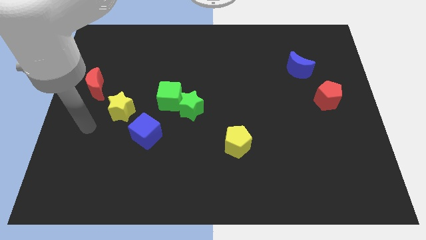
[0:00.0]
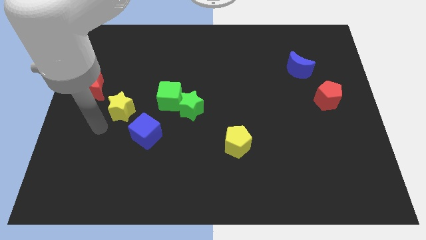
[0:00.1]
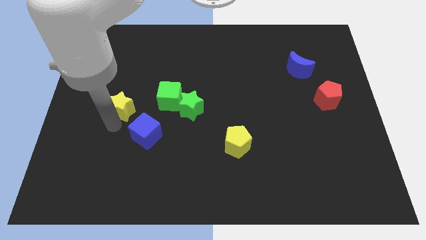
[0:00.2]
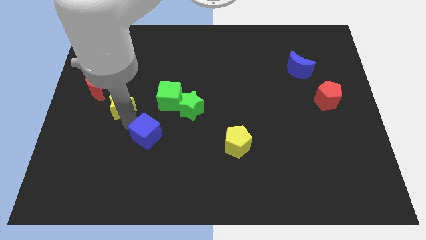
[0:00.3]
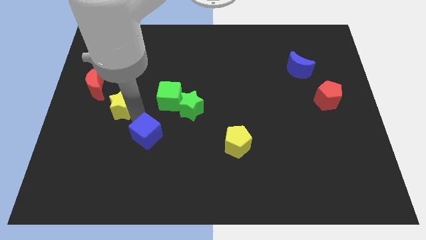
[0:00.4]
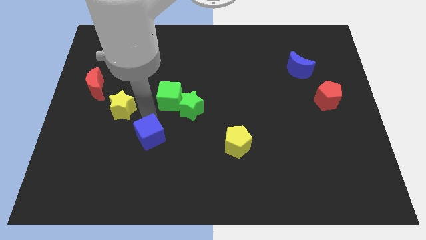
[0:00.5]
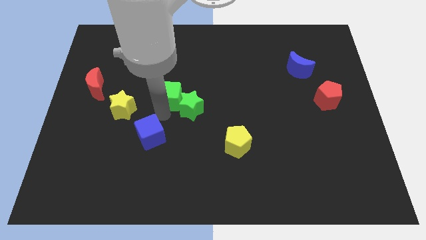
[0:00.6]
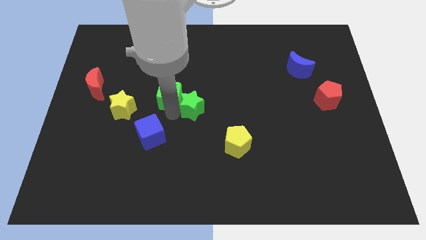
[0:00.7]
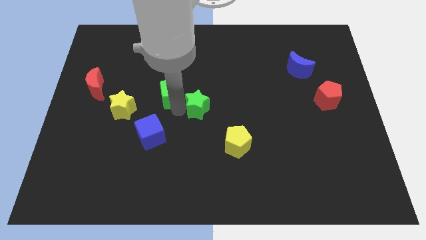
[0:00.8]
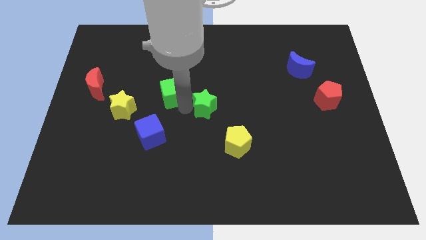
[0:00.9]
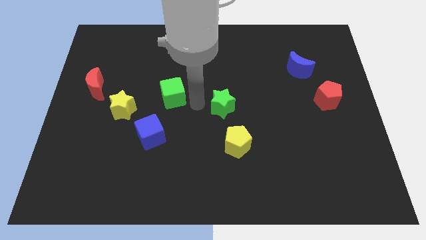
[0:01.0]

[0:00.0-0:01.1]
pull the green cube apart from the green star

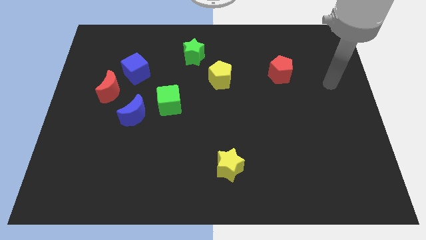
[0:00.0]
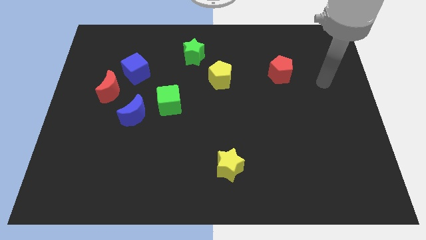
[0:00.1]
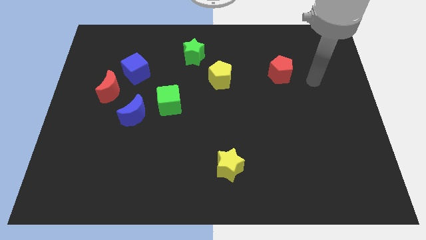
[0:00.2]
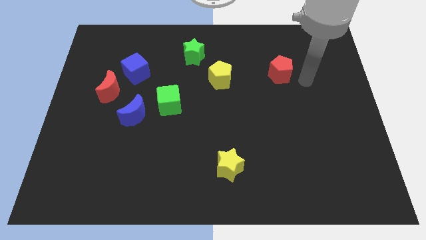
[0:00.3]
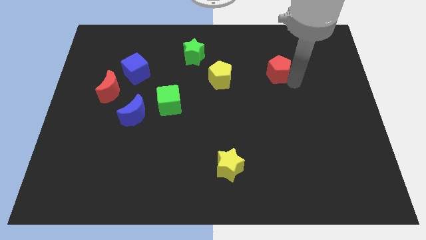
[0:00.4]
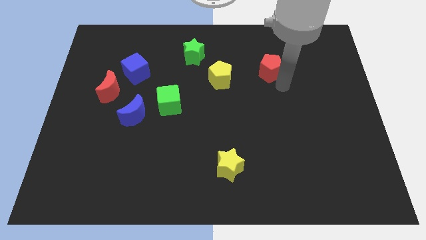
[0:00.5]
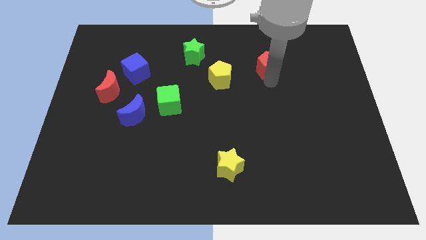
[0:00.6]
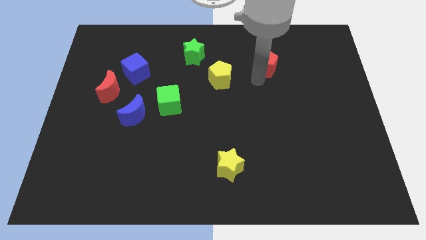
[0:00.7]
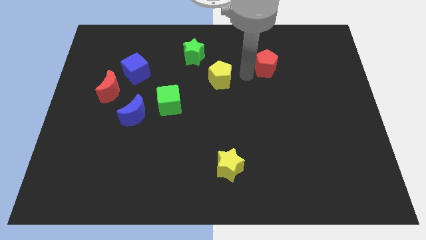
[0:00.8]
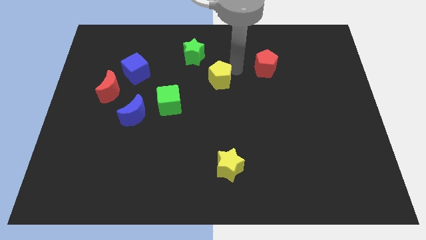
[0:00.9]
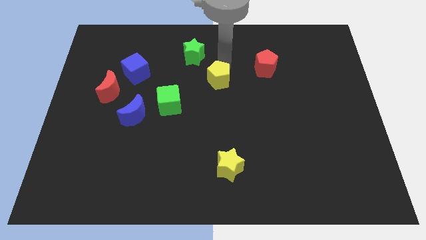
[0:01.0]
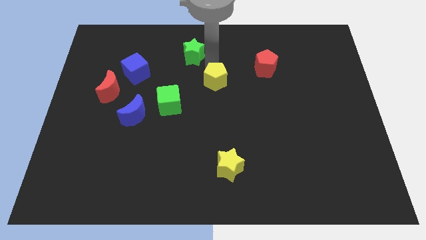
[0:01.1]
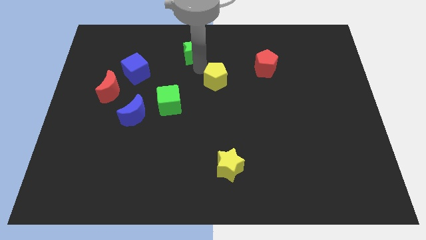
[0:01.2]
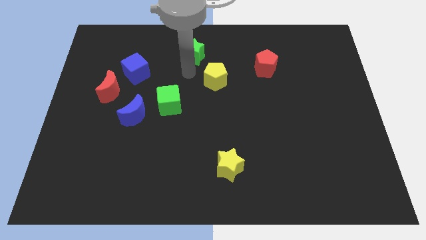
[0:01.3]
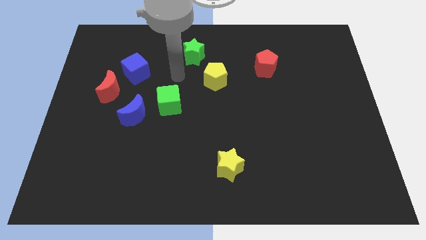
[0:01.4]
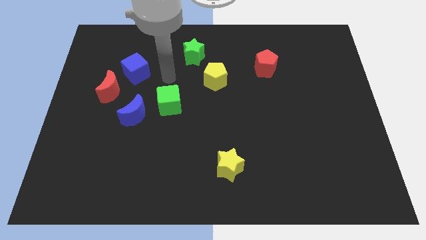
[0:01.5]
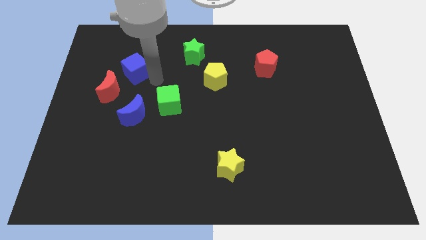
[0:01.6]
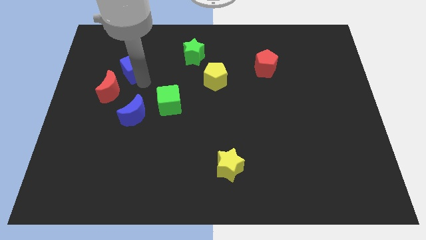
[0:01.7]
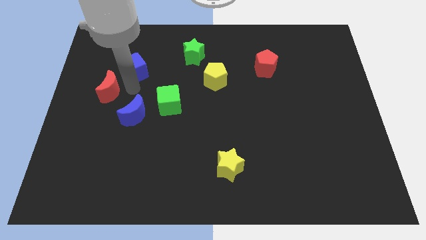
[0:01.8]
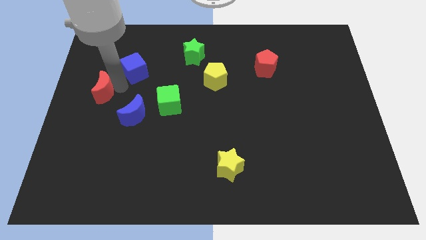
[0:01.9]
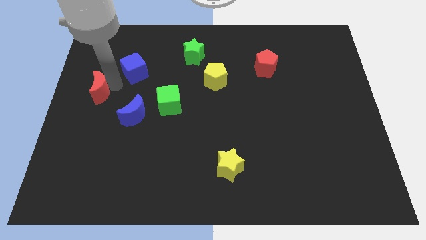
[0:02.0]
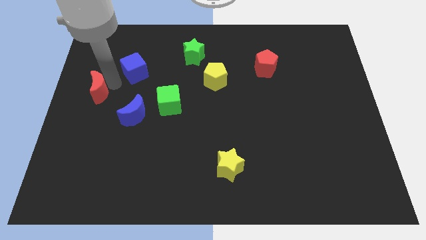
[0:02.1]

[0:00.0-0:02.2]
separate the blue cube from the red moon

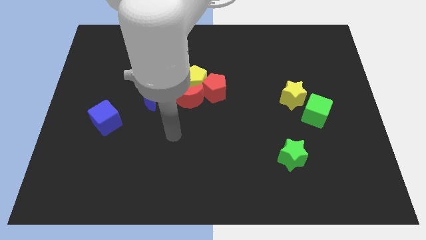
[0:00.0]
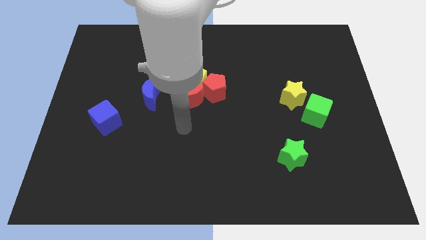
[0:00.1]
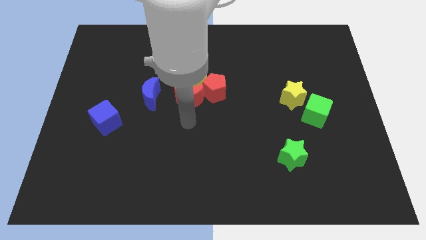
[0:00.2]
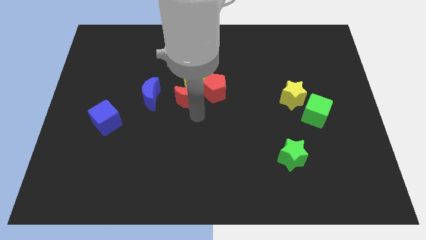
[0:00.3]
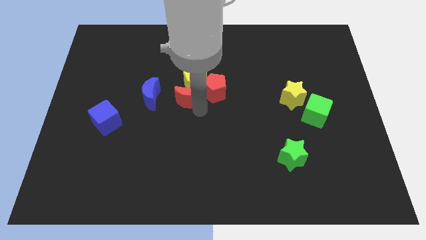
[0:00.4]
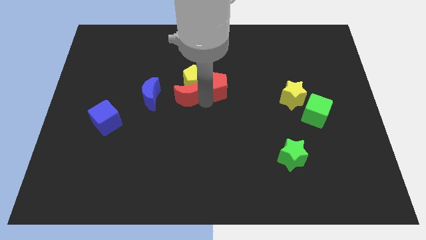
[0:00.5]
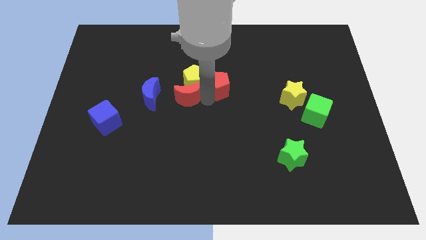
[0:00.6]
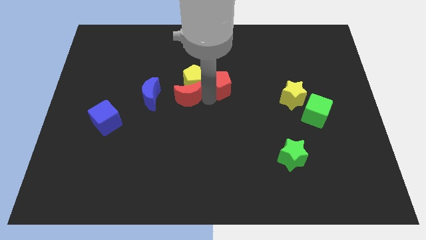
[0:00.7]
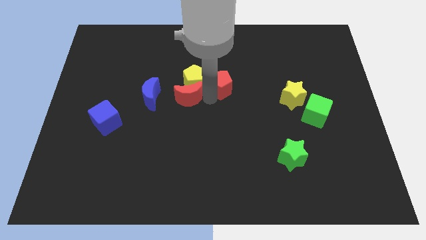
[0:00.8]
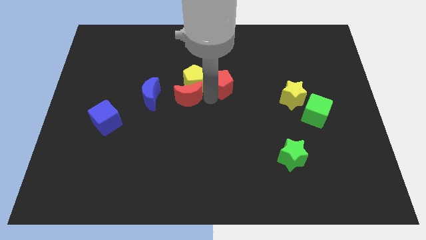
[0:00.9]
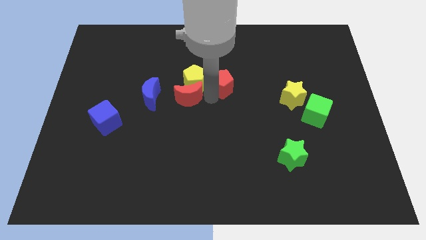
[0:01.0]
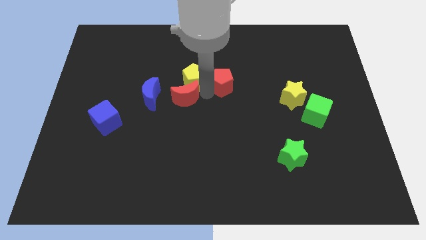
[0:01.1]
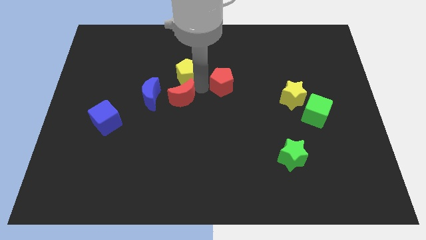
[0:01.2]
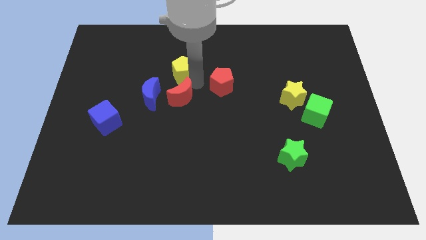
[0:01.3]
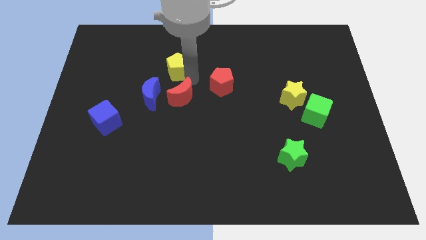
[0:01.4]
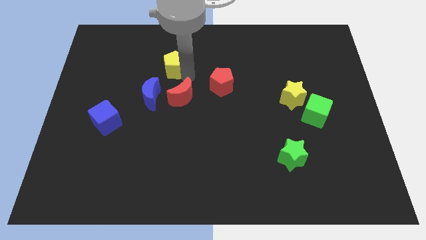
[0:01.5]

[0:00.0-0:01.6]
move the yellow pentagon away from the red moon and red pentagon

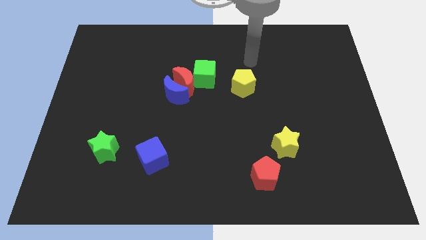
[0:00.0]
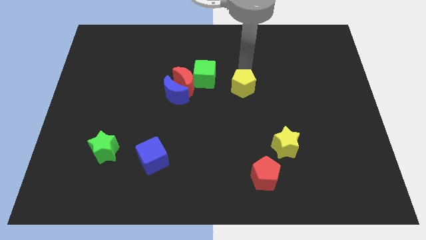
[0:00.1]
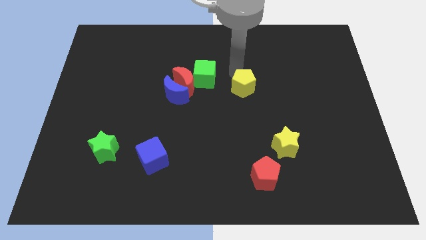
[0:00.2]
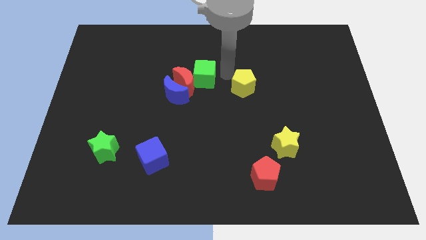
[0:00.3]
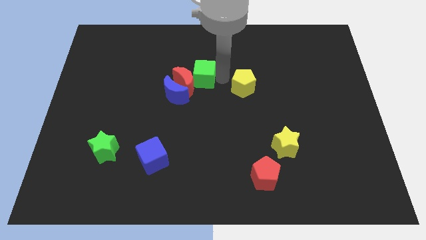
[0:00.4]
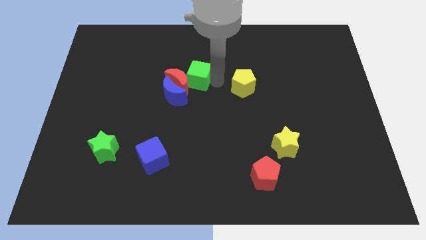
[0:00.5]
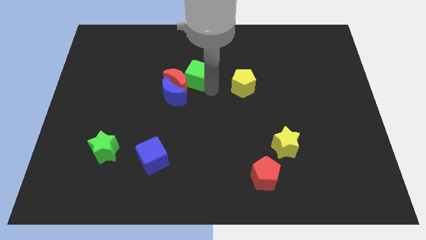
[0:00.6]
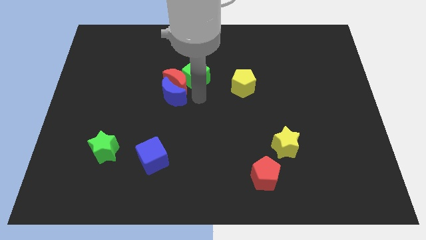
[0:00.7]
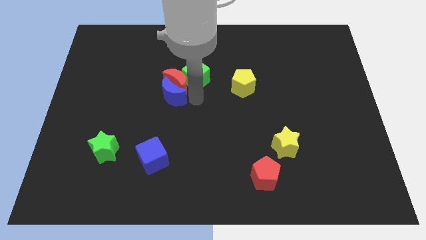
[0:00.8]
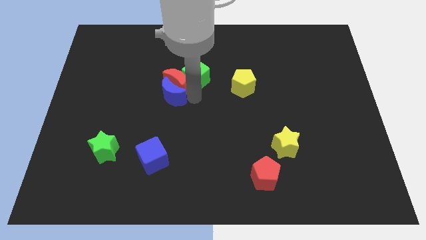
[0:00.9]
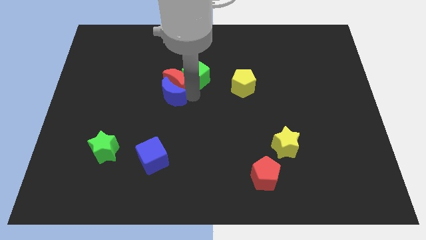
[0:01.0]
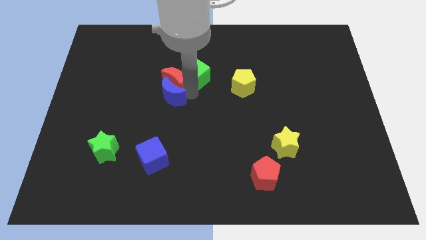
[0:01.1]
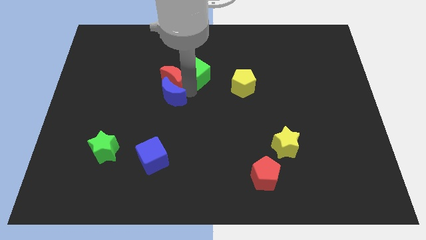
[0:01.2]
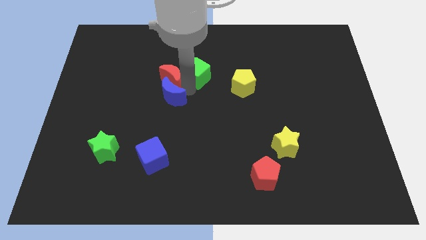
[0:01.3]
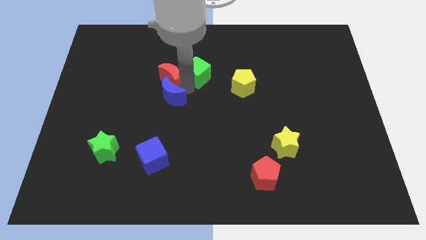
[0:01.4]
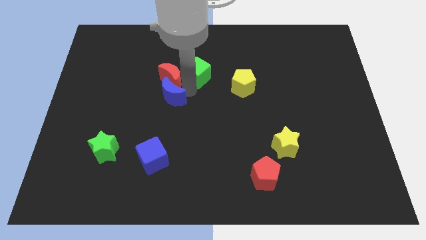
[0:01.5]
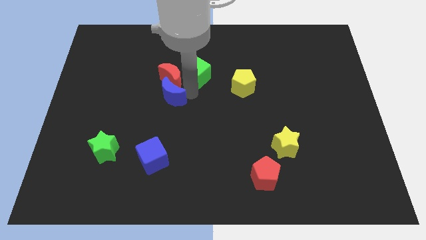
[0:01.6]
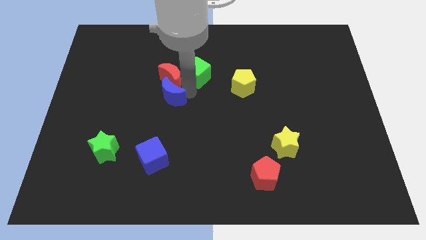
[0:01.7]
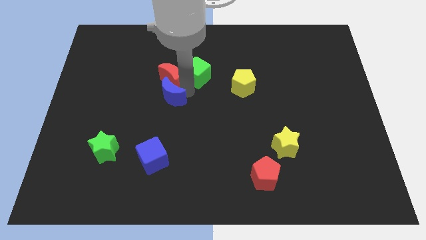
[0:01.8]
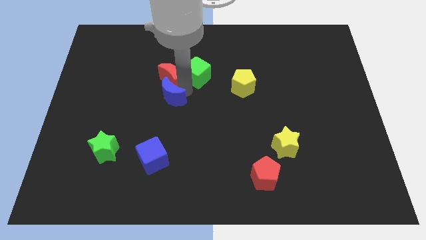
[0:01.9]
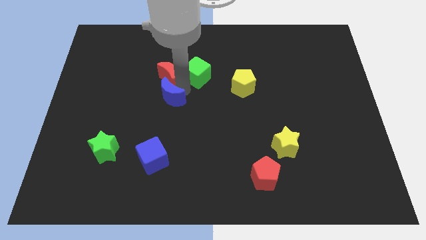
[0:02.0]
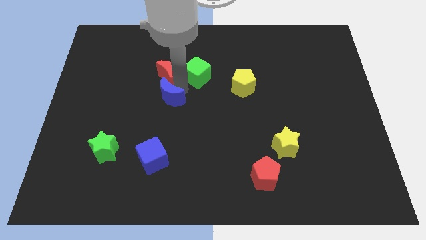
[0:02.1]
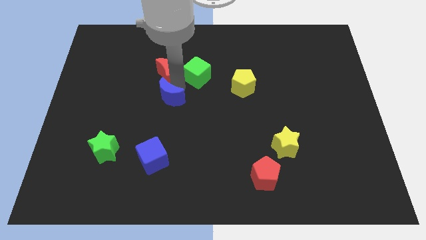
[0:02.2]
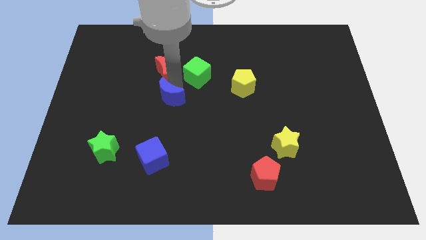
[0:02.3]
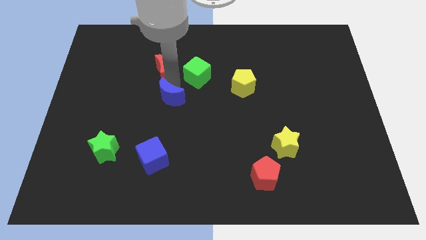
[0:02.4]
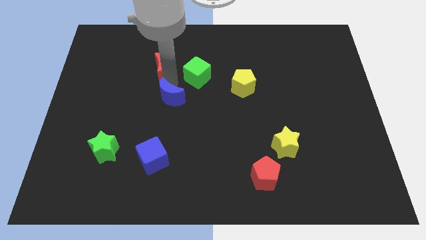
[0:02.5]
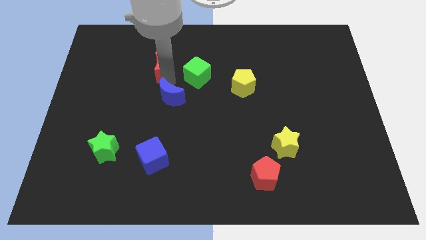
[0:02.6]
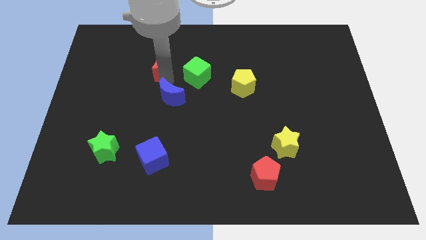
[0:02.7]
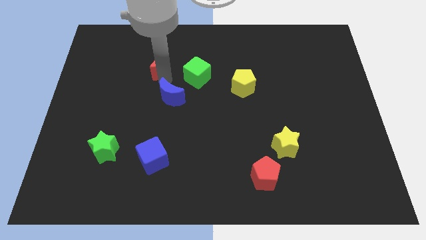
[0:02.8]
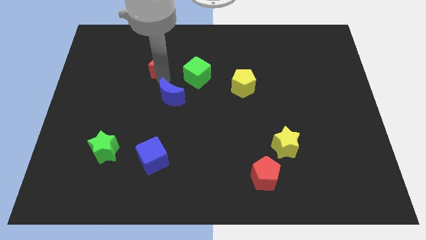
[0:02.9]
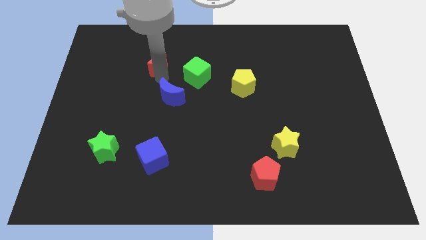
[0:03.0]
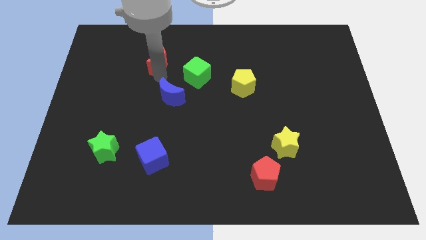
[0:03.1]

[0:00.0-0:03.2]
separate the red moon from the blue moon and green cube

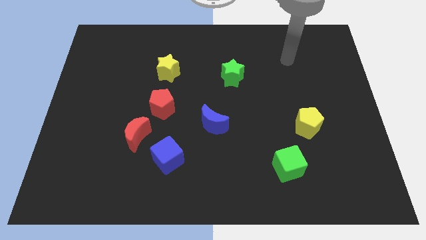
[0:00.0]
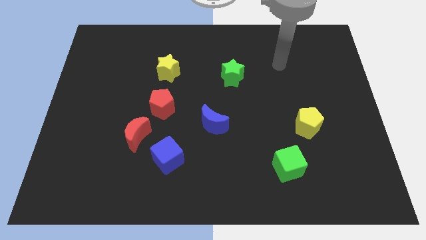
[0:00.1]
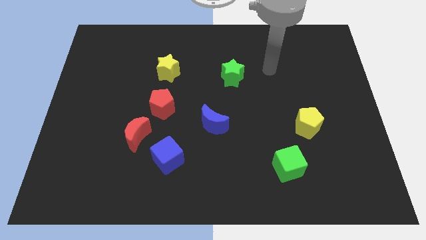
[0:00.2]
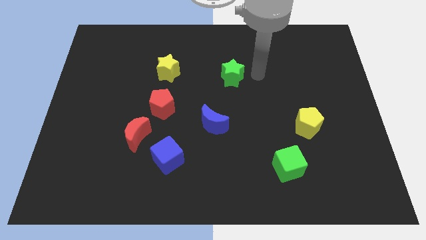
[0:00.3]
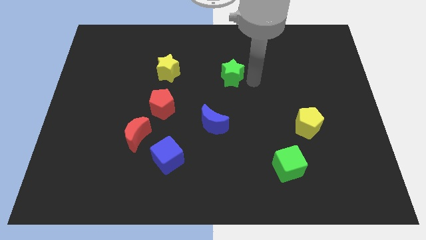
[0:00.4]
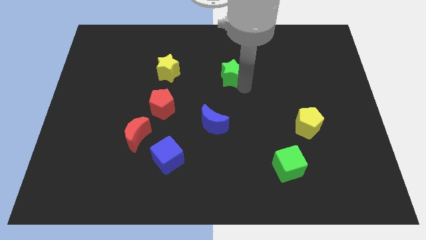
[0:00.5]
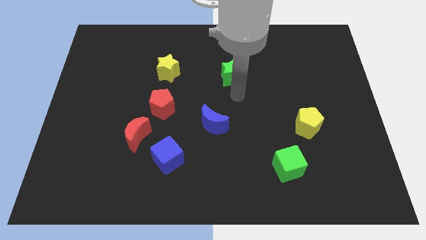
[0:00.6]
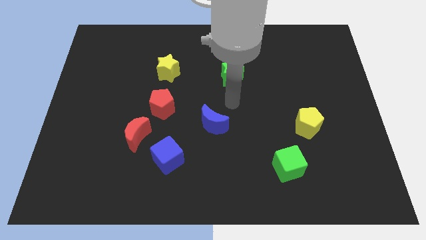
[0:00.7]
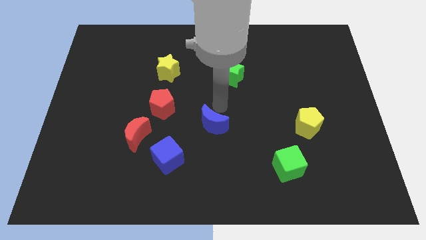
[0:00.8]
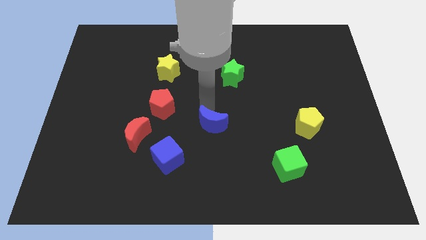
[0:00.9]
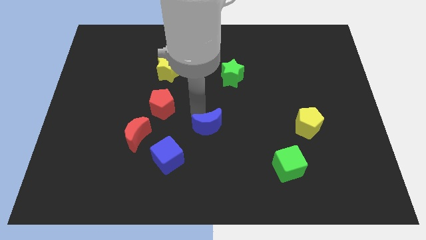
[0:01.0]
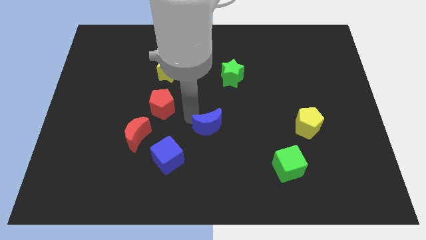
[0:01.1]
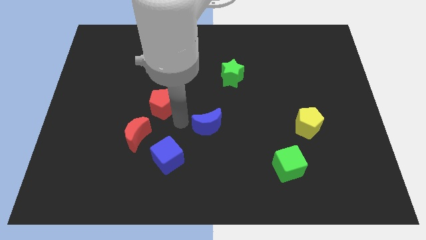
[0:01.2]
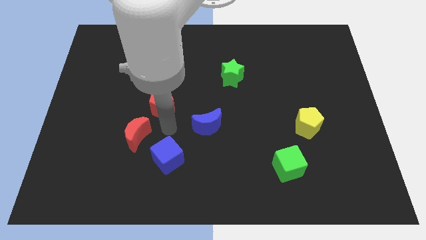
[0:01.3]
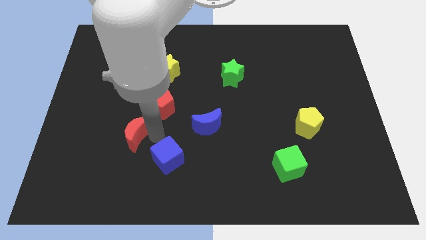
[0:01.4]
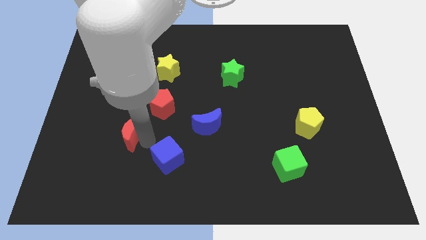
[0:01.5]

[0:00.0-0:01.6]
move the blue cube away from the red moon
